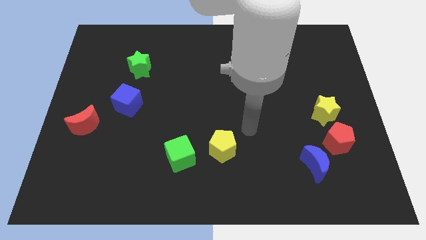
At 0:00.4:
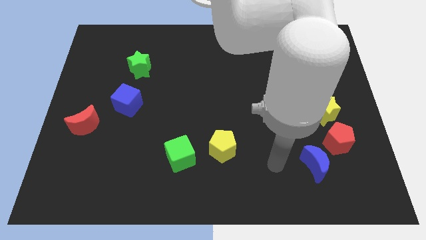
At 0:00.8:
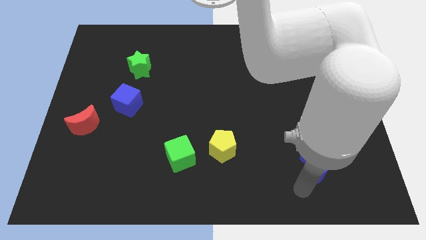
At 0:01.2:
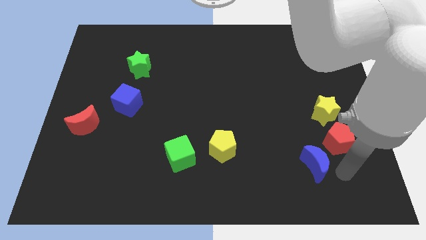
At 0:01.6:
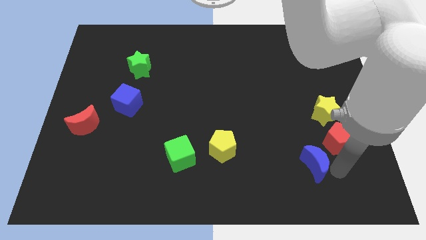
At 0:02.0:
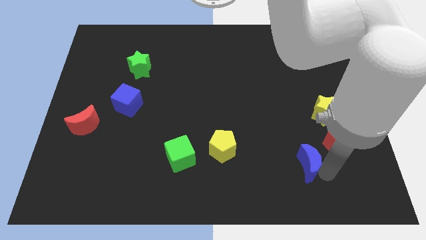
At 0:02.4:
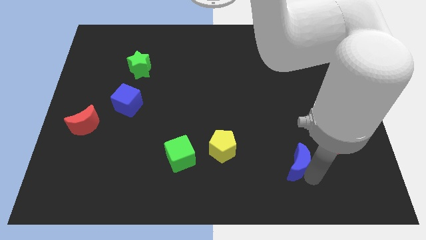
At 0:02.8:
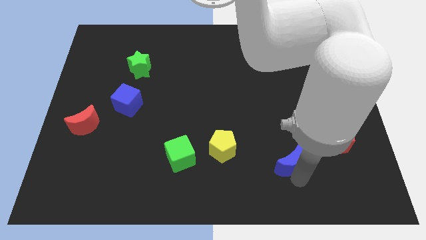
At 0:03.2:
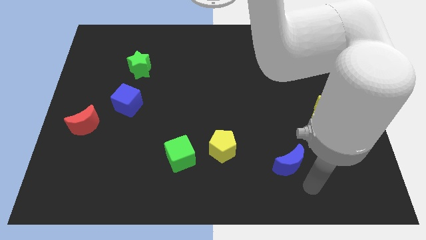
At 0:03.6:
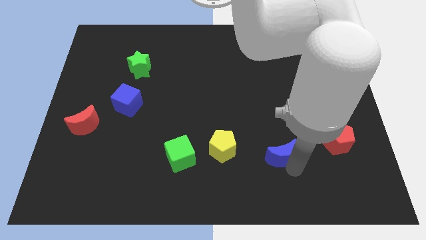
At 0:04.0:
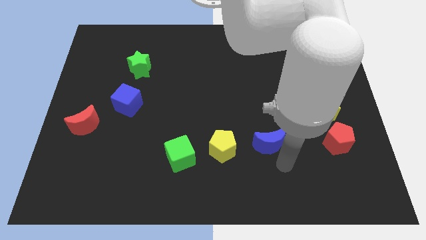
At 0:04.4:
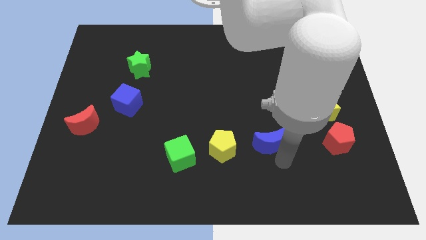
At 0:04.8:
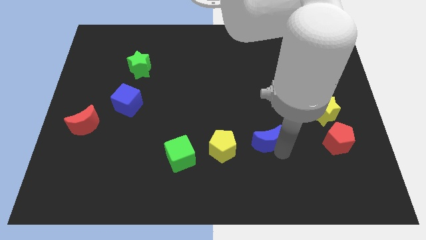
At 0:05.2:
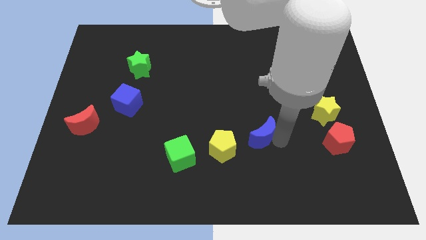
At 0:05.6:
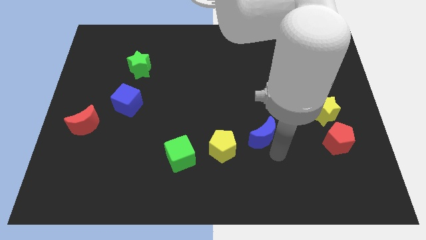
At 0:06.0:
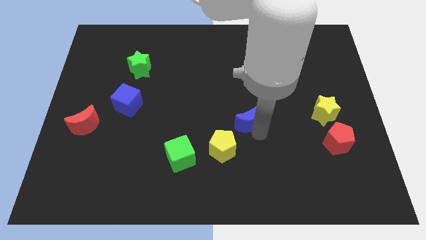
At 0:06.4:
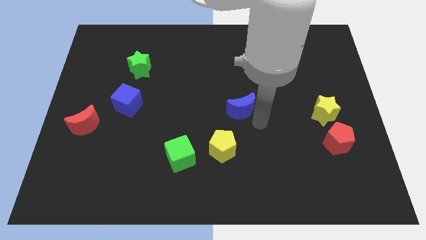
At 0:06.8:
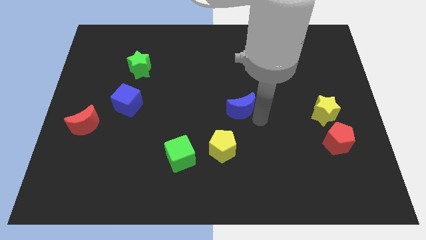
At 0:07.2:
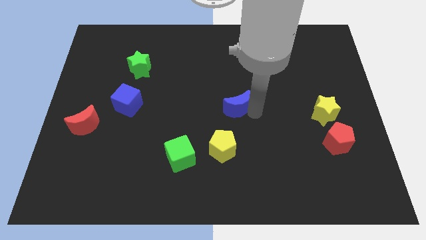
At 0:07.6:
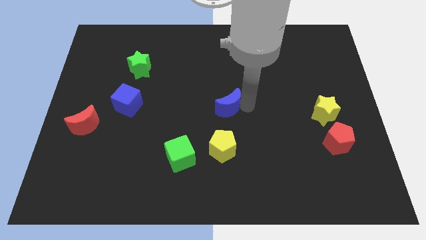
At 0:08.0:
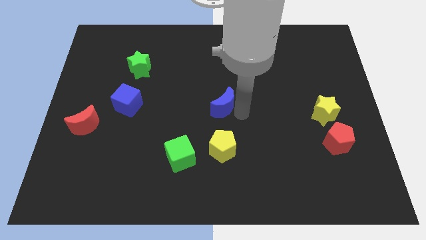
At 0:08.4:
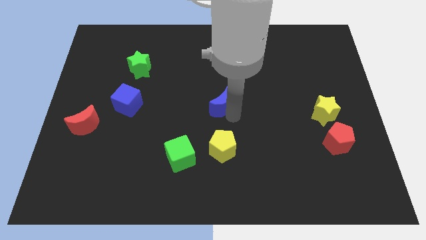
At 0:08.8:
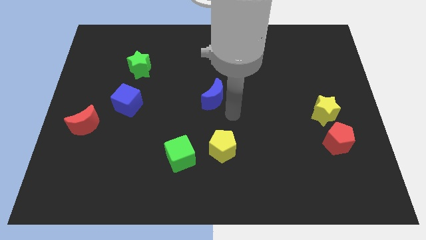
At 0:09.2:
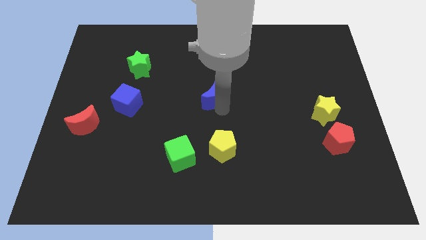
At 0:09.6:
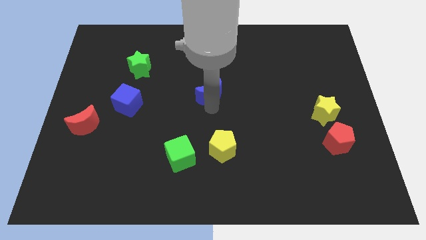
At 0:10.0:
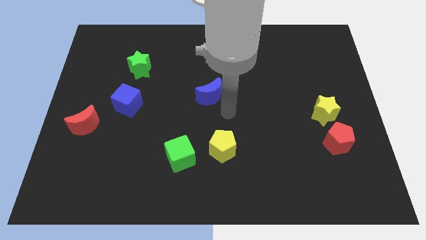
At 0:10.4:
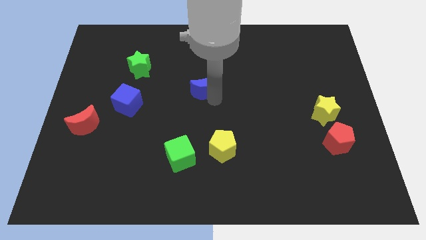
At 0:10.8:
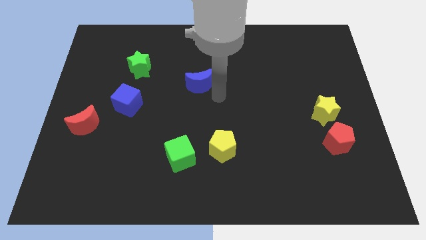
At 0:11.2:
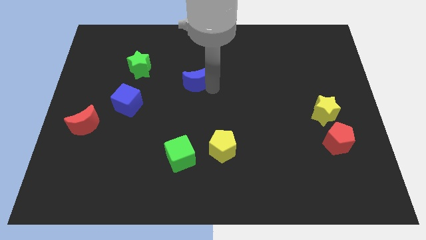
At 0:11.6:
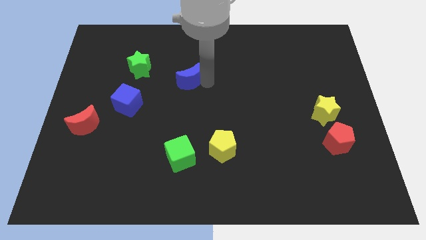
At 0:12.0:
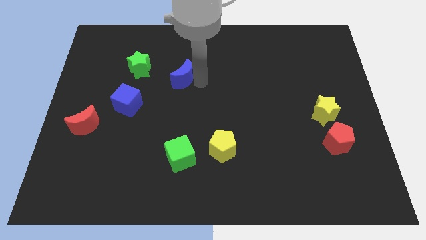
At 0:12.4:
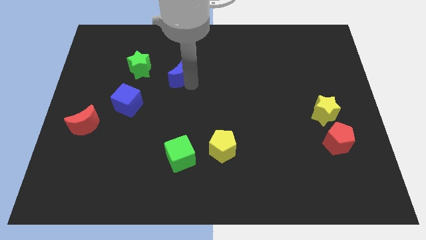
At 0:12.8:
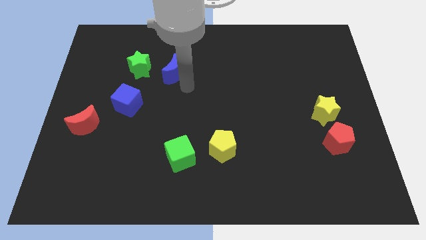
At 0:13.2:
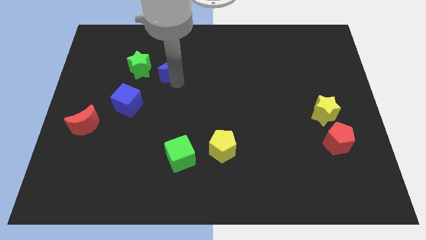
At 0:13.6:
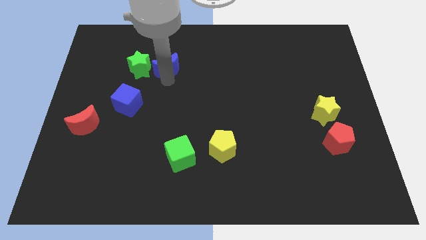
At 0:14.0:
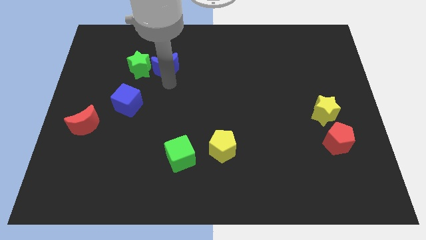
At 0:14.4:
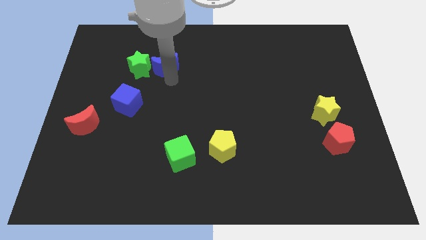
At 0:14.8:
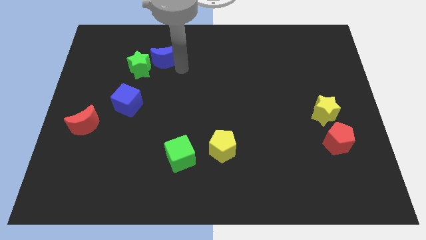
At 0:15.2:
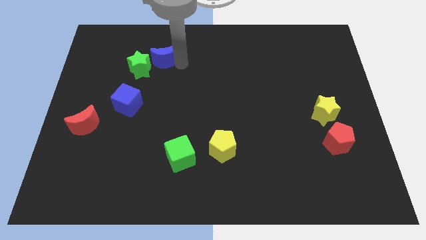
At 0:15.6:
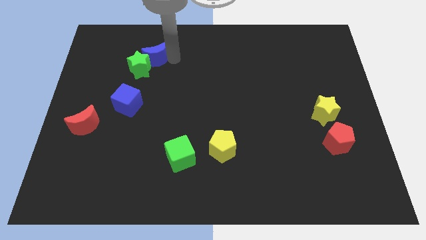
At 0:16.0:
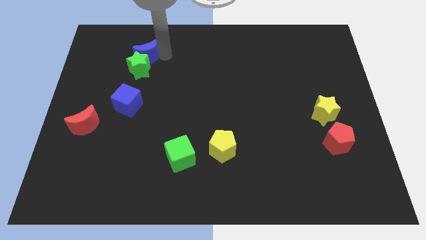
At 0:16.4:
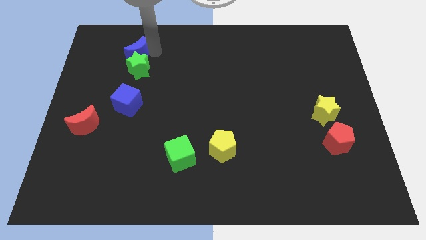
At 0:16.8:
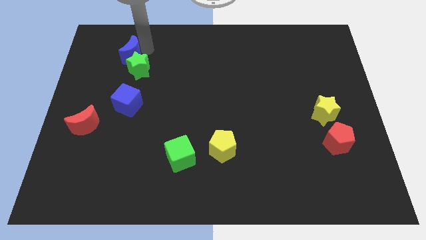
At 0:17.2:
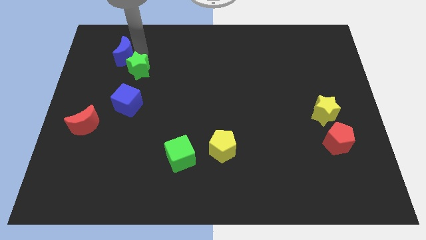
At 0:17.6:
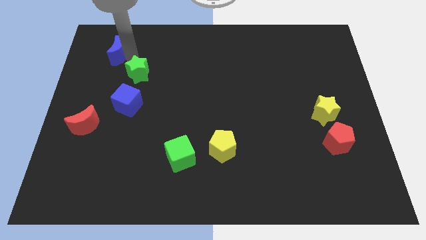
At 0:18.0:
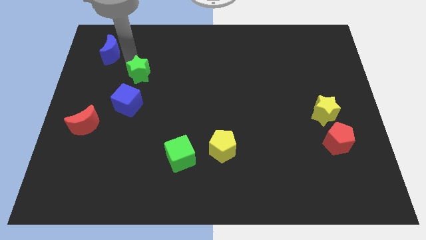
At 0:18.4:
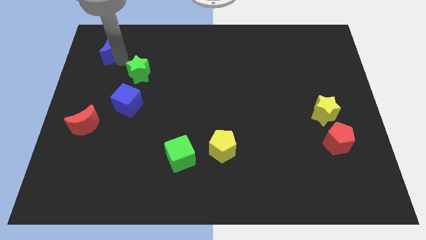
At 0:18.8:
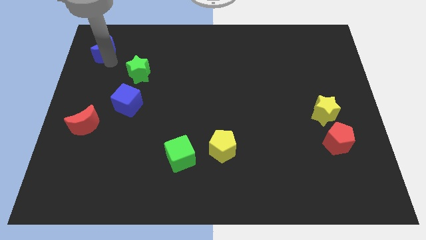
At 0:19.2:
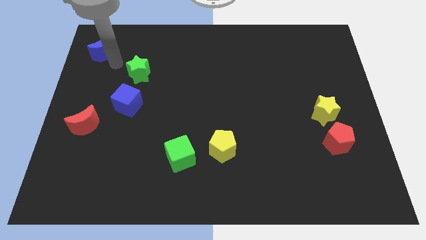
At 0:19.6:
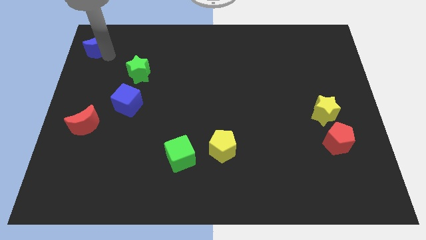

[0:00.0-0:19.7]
put the blue moon to the upper left corner

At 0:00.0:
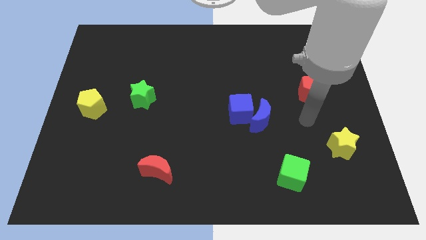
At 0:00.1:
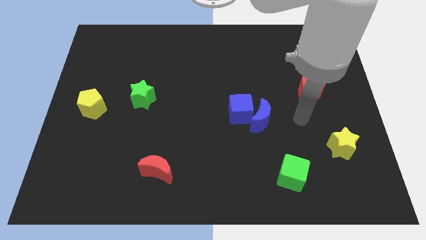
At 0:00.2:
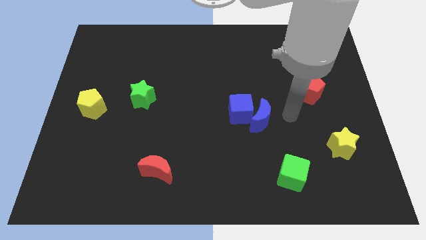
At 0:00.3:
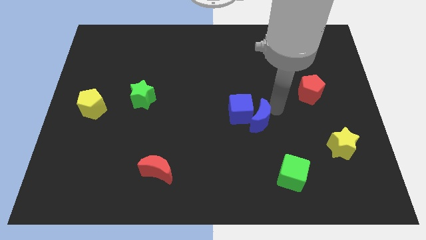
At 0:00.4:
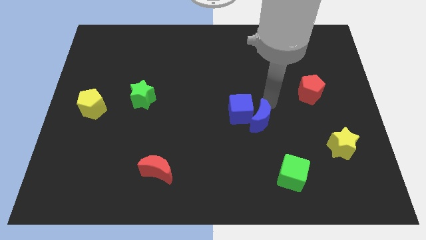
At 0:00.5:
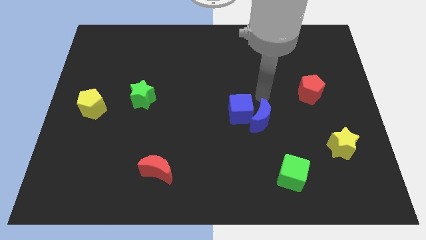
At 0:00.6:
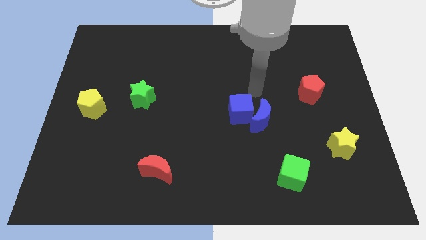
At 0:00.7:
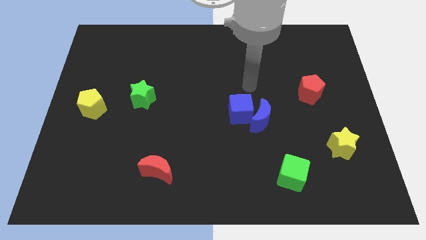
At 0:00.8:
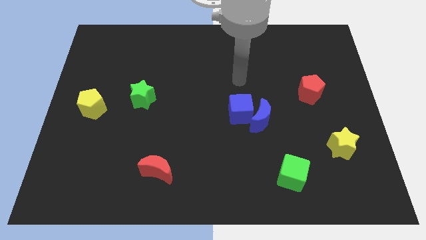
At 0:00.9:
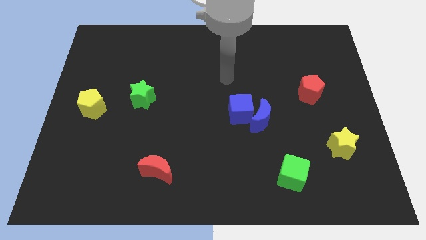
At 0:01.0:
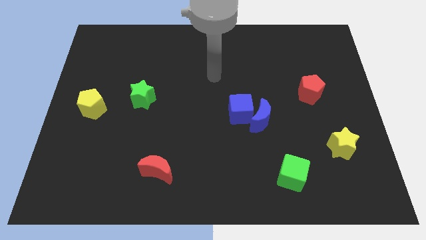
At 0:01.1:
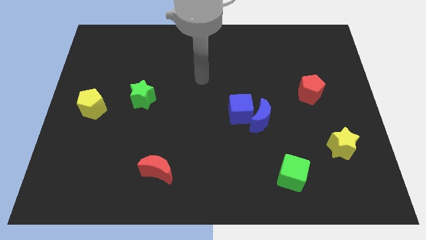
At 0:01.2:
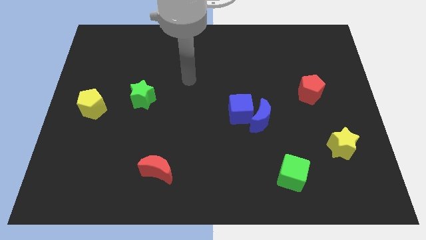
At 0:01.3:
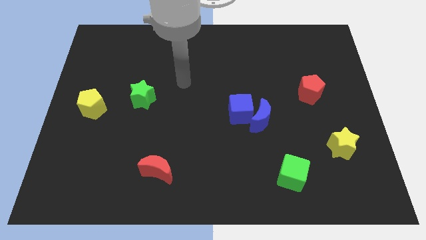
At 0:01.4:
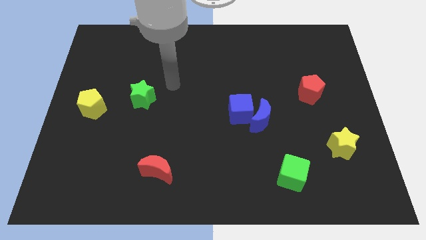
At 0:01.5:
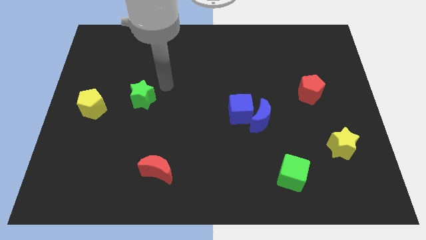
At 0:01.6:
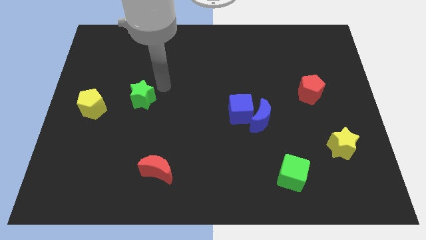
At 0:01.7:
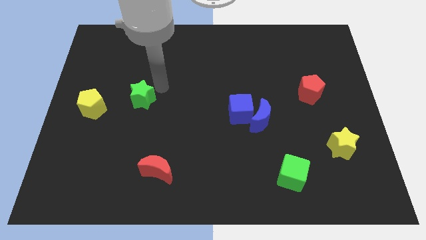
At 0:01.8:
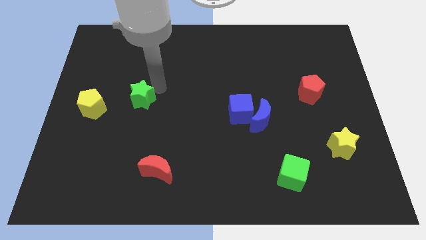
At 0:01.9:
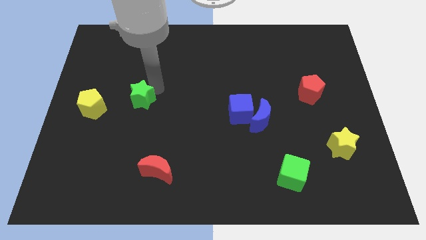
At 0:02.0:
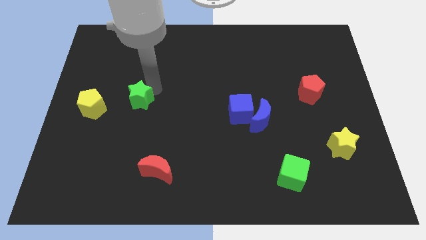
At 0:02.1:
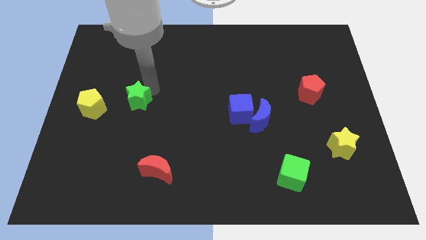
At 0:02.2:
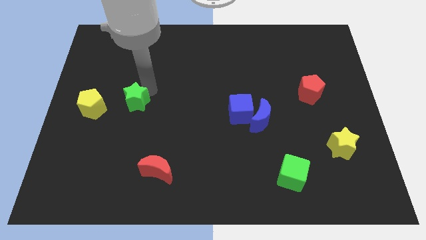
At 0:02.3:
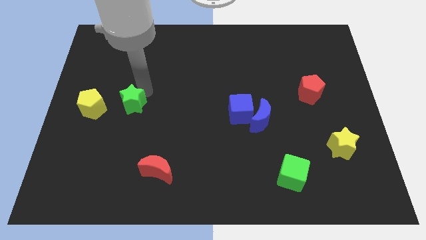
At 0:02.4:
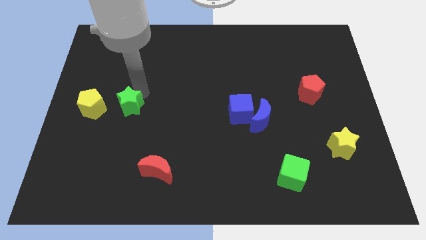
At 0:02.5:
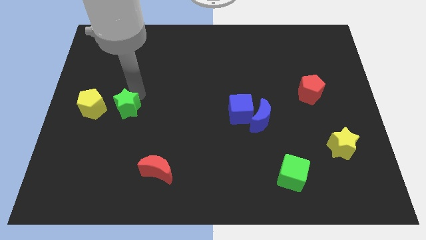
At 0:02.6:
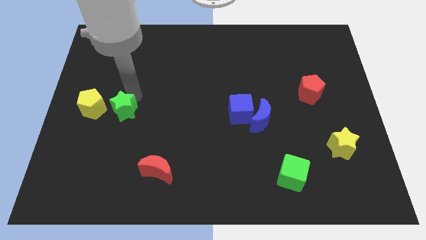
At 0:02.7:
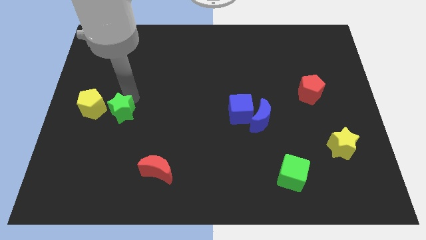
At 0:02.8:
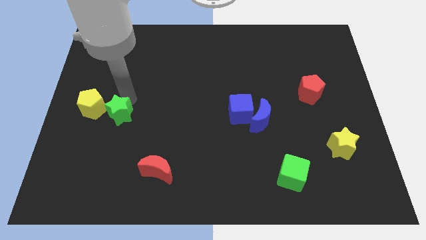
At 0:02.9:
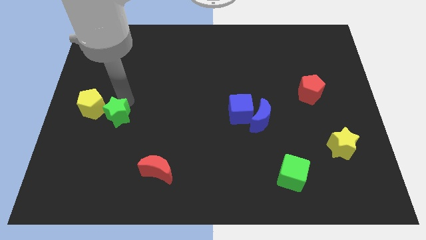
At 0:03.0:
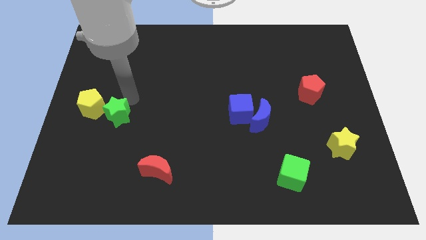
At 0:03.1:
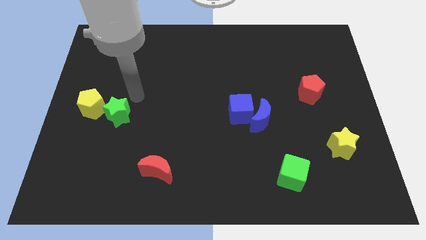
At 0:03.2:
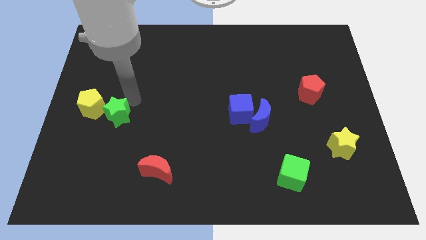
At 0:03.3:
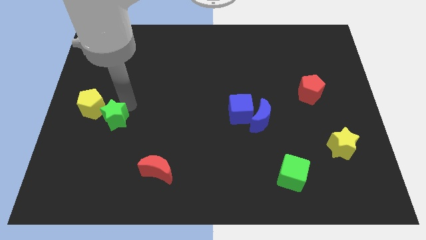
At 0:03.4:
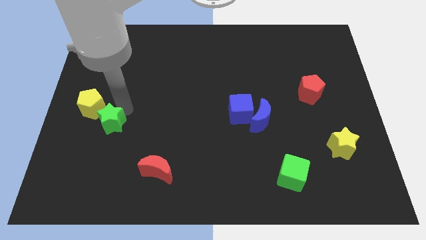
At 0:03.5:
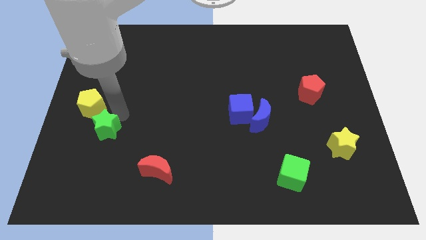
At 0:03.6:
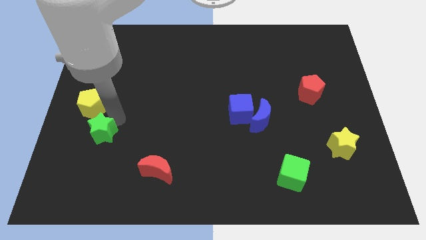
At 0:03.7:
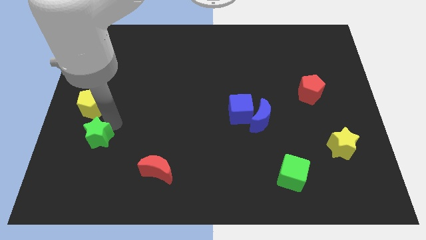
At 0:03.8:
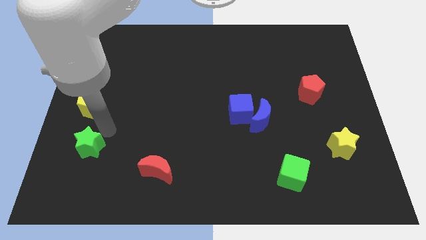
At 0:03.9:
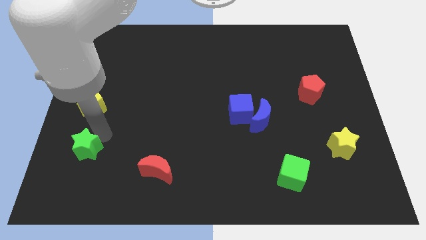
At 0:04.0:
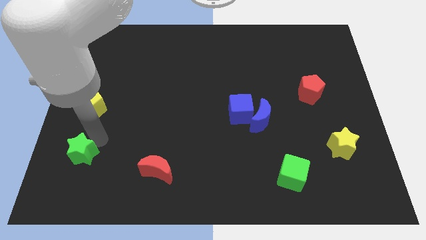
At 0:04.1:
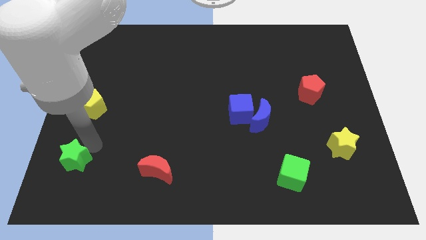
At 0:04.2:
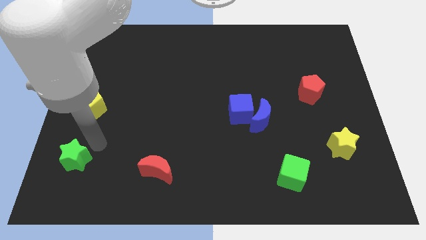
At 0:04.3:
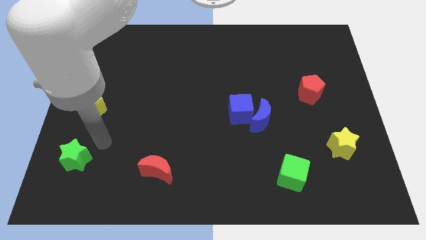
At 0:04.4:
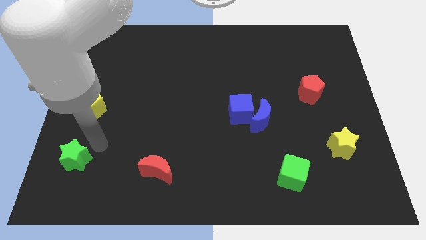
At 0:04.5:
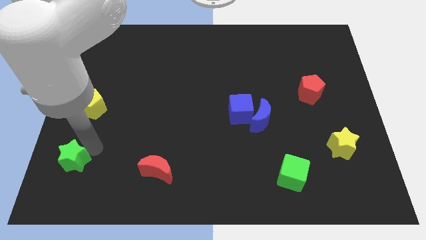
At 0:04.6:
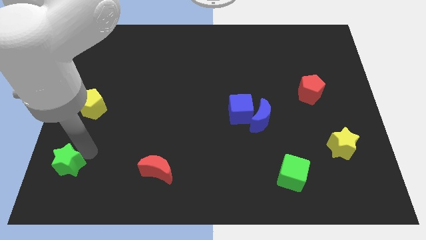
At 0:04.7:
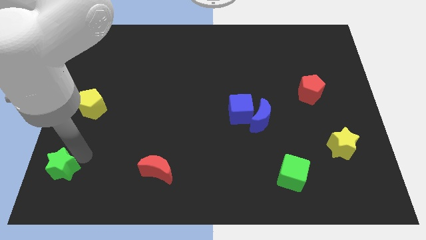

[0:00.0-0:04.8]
move the green star to the bottom left of the board
